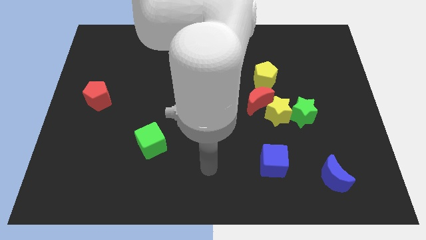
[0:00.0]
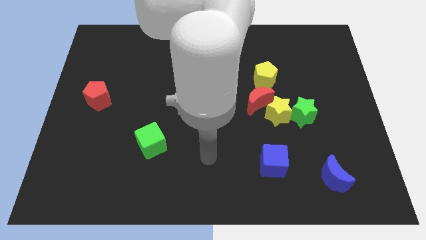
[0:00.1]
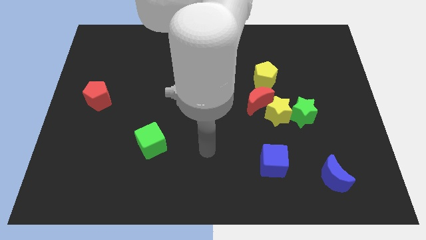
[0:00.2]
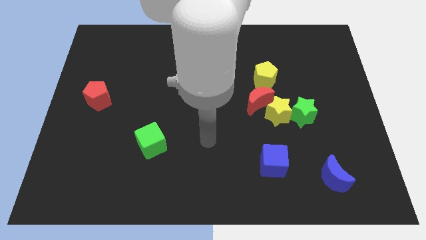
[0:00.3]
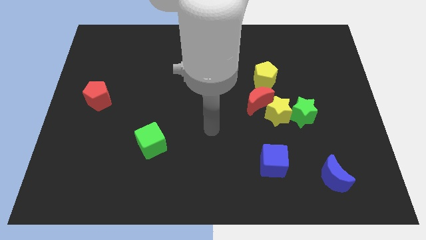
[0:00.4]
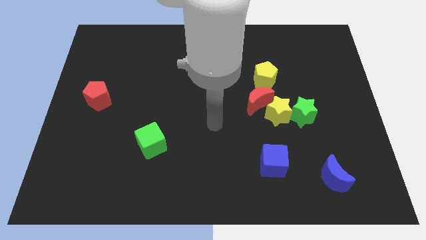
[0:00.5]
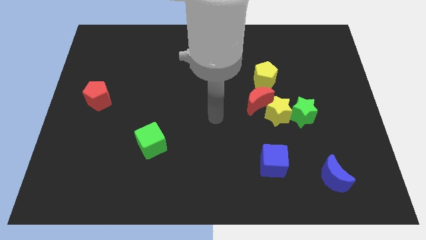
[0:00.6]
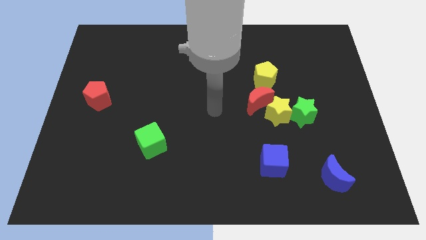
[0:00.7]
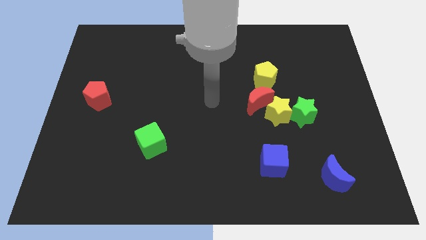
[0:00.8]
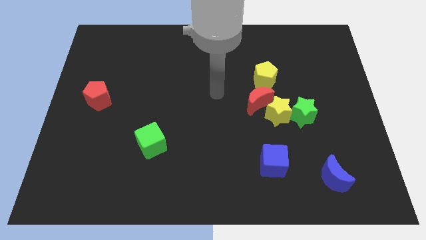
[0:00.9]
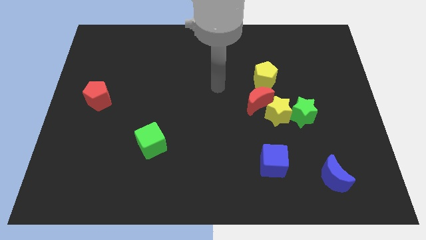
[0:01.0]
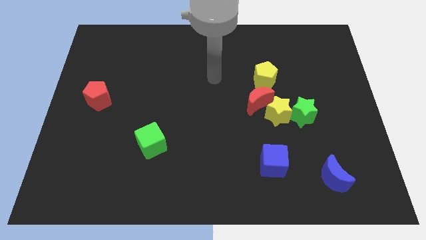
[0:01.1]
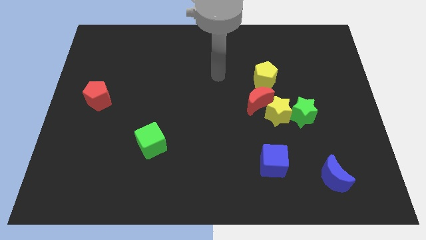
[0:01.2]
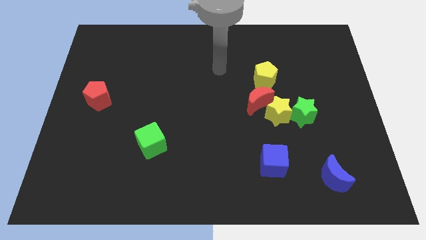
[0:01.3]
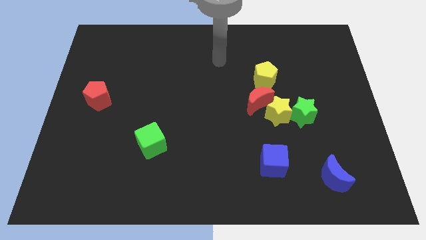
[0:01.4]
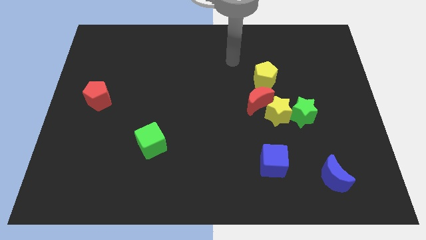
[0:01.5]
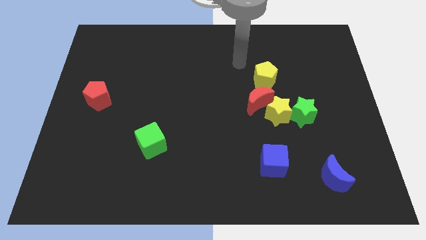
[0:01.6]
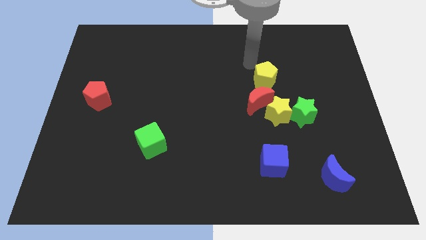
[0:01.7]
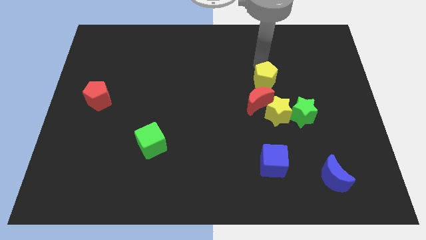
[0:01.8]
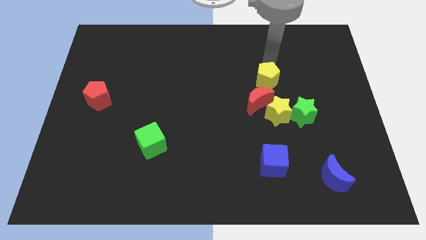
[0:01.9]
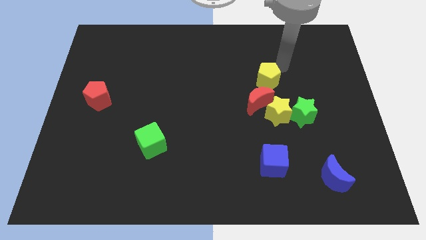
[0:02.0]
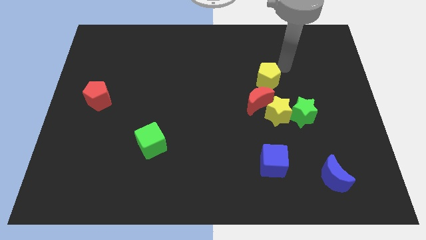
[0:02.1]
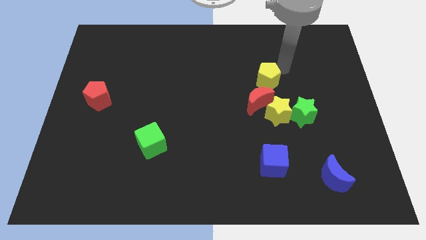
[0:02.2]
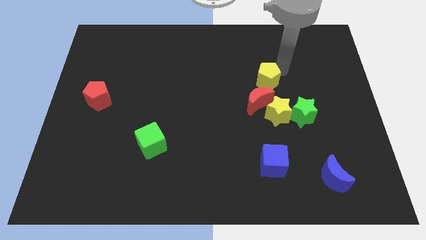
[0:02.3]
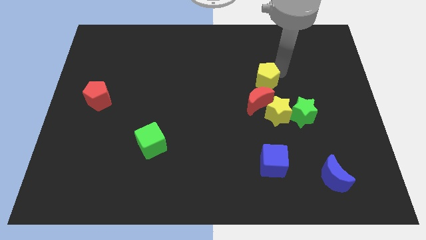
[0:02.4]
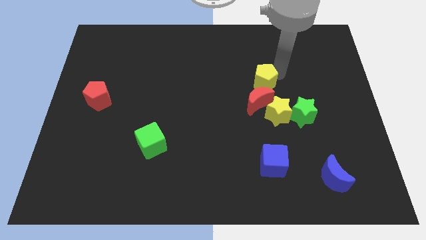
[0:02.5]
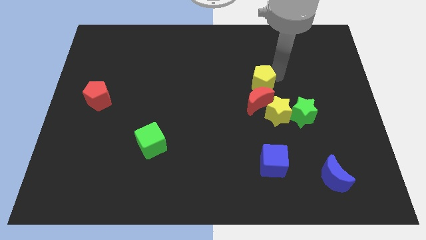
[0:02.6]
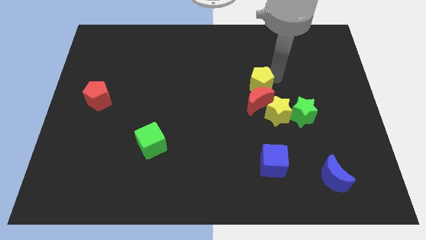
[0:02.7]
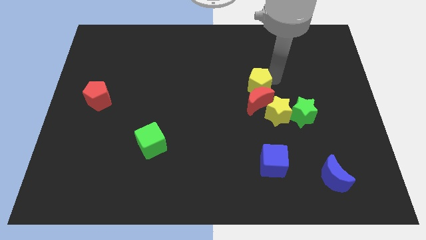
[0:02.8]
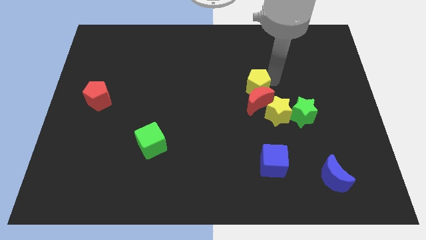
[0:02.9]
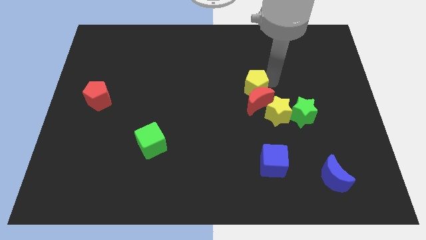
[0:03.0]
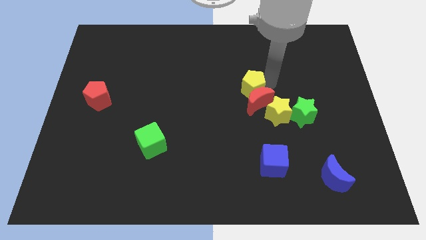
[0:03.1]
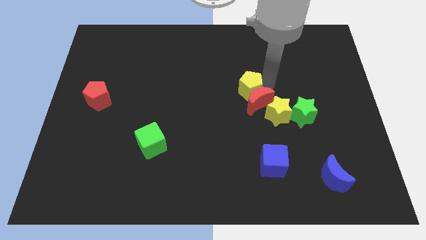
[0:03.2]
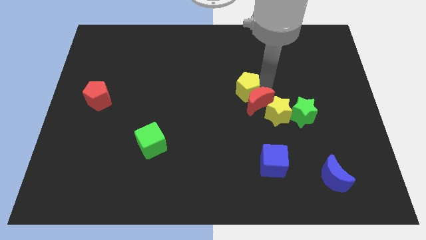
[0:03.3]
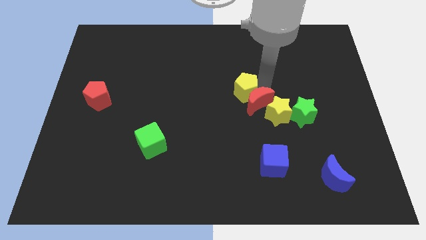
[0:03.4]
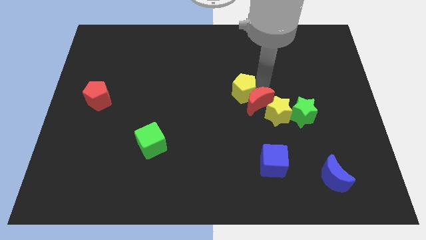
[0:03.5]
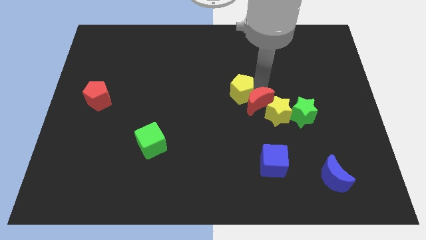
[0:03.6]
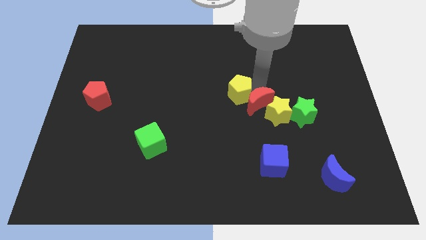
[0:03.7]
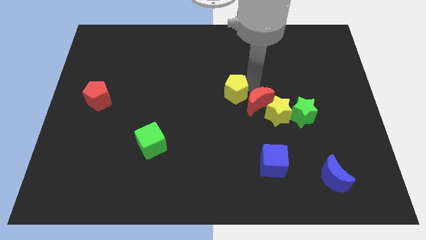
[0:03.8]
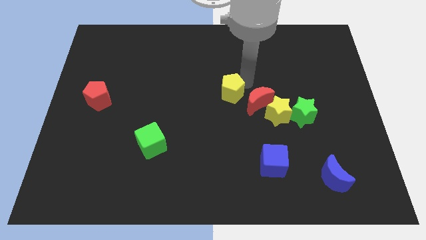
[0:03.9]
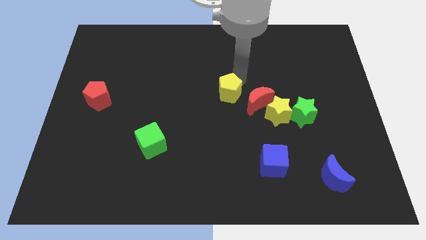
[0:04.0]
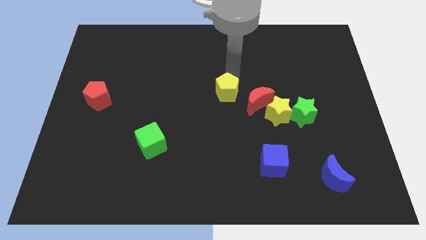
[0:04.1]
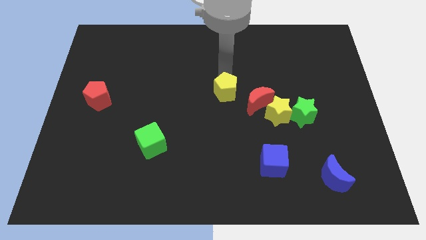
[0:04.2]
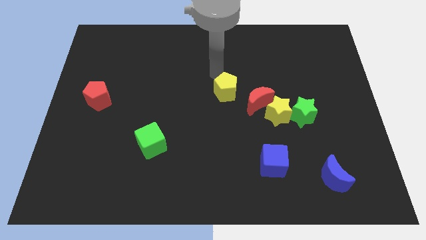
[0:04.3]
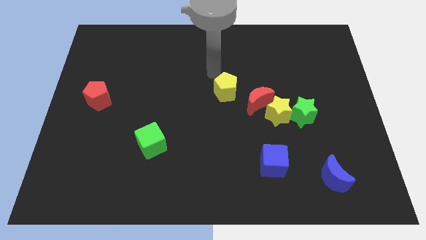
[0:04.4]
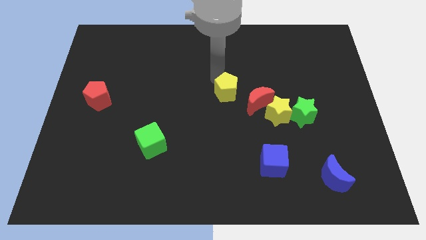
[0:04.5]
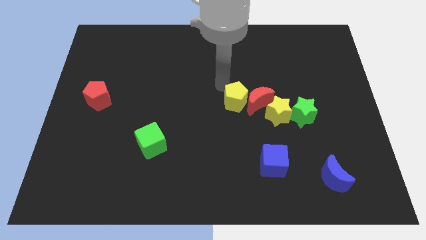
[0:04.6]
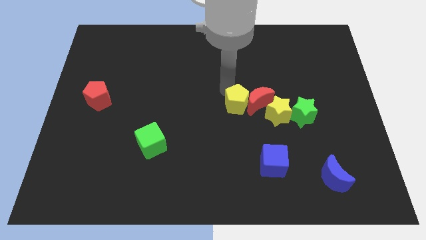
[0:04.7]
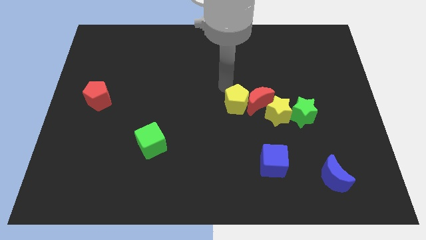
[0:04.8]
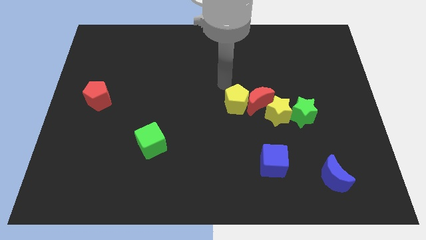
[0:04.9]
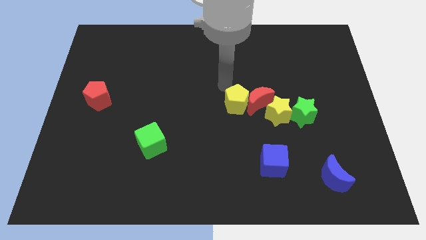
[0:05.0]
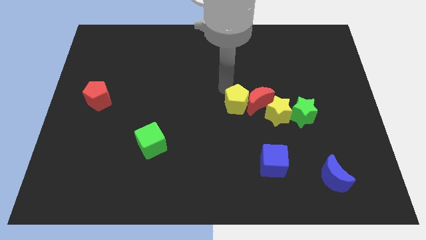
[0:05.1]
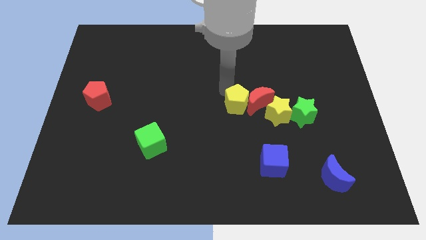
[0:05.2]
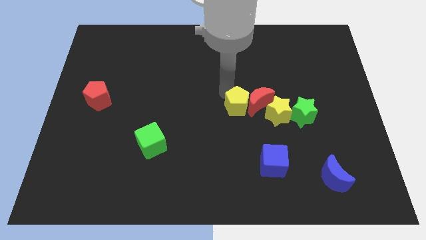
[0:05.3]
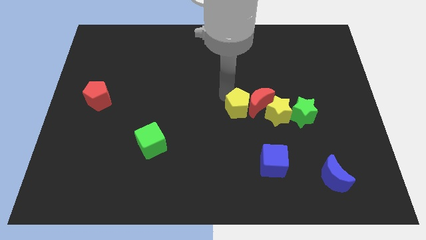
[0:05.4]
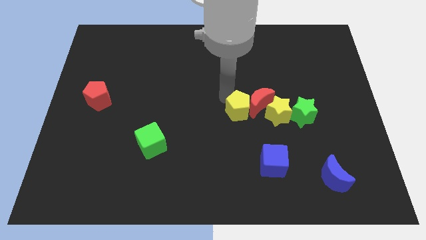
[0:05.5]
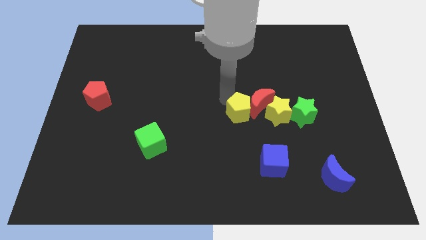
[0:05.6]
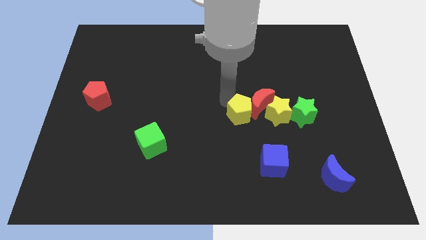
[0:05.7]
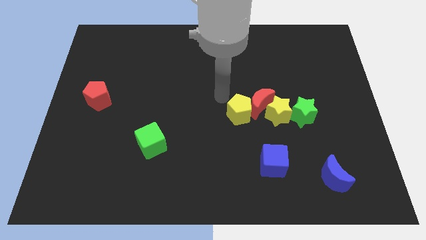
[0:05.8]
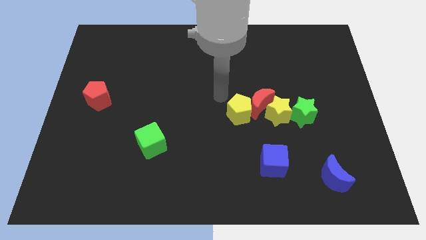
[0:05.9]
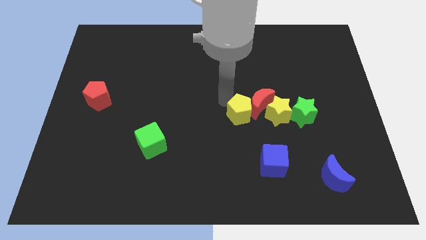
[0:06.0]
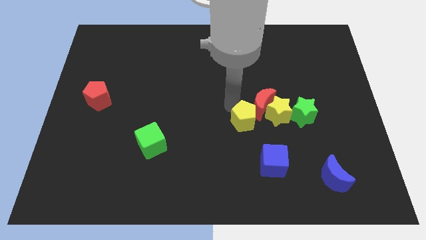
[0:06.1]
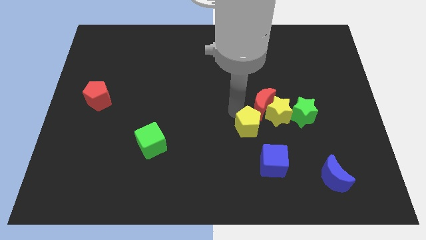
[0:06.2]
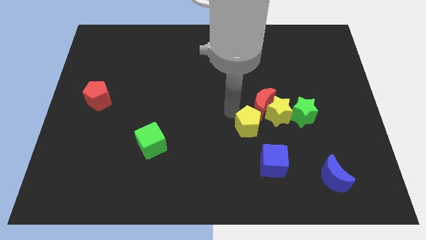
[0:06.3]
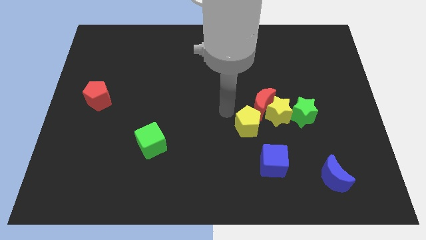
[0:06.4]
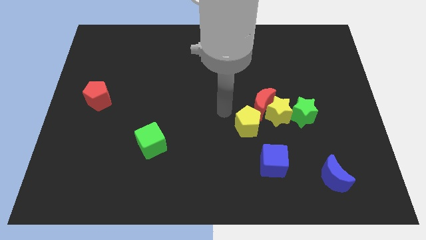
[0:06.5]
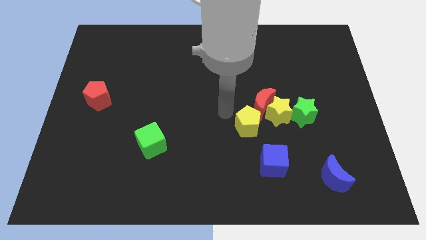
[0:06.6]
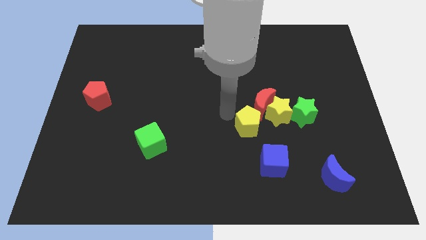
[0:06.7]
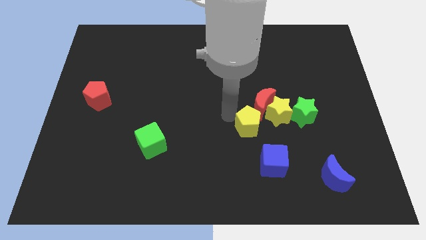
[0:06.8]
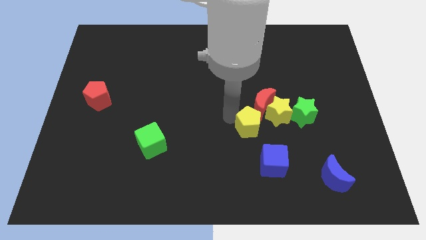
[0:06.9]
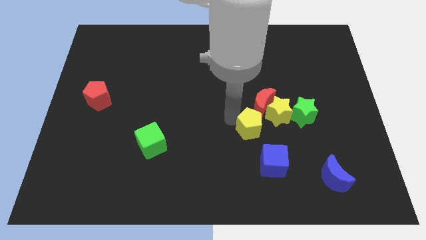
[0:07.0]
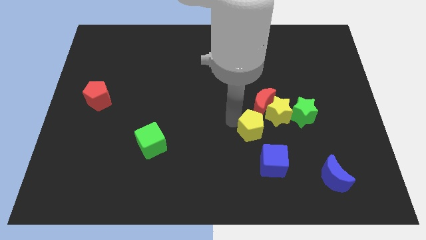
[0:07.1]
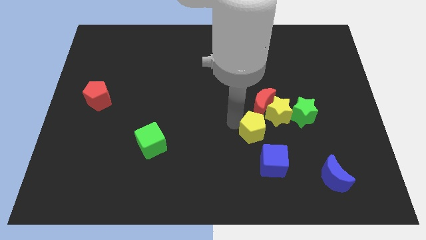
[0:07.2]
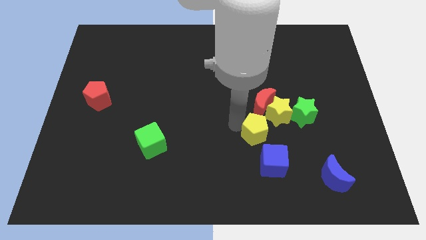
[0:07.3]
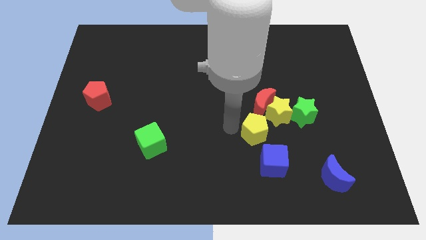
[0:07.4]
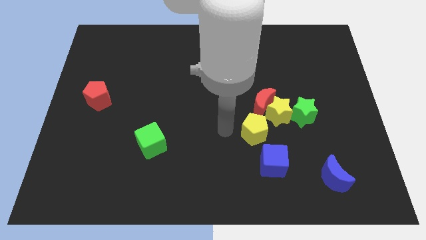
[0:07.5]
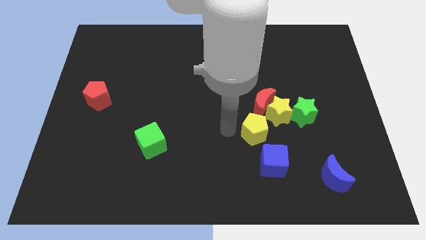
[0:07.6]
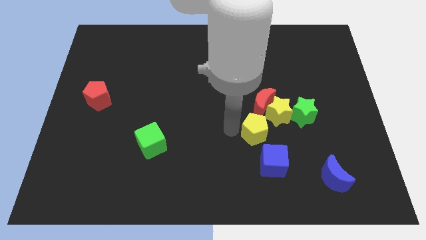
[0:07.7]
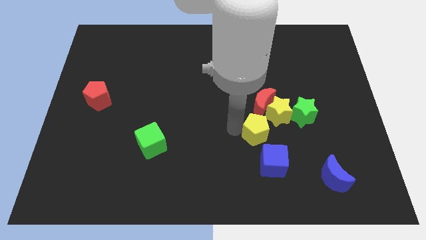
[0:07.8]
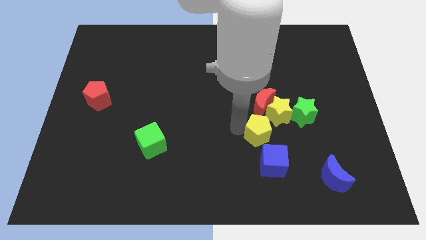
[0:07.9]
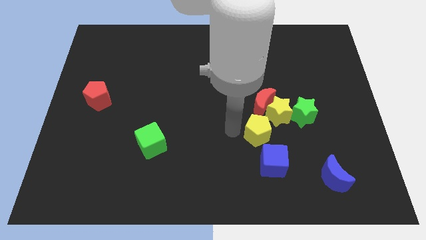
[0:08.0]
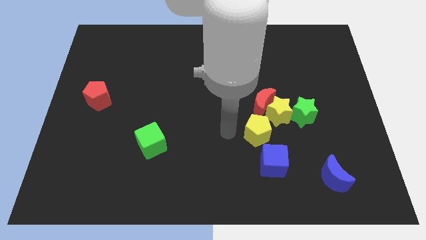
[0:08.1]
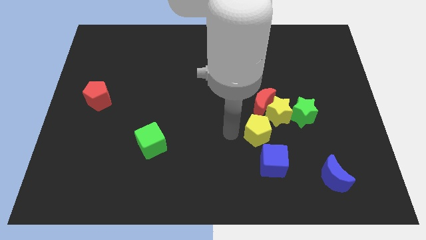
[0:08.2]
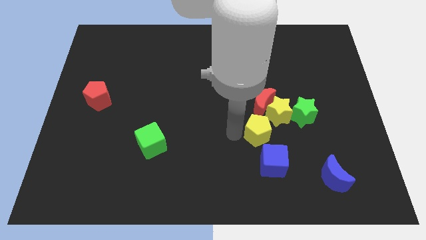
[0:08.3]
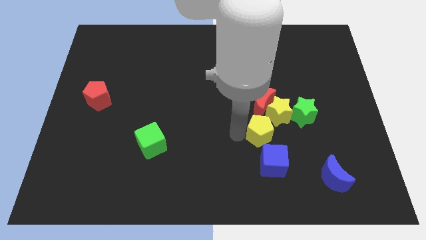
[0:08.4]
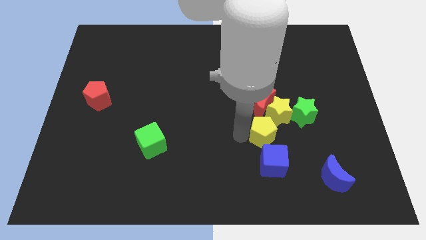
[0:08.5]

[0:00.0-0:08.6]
push the yellow pentagon to the bottom left side of the green star
